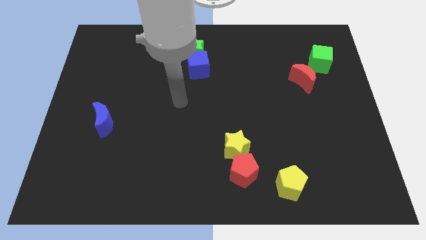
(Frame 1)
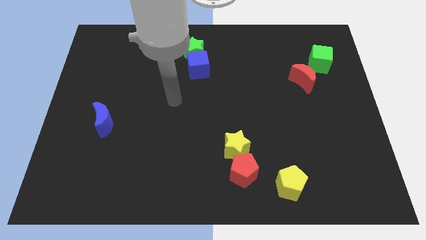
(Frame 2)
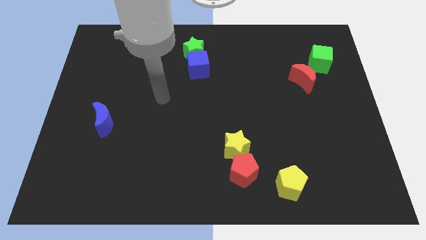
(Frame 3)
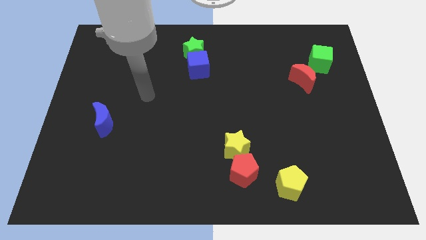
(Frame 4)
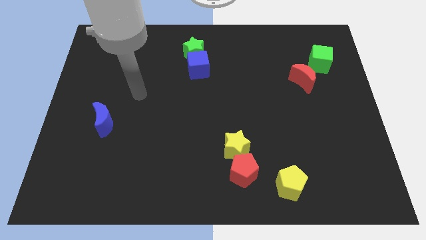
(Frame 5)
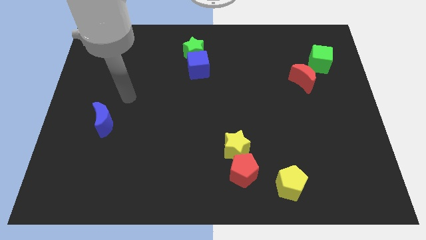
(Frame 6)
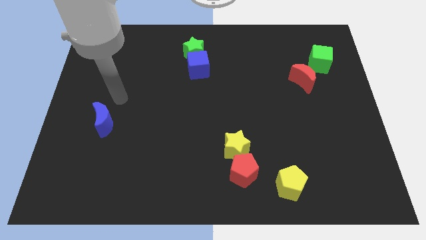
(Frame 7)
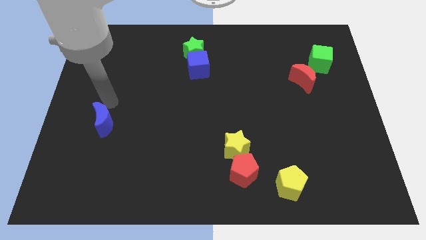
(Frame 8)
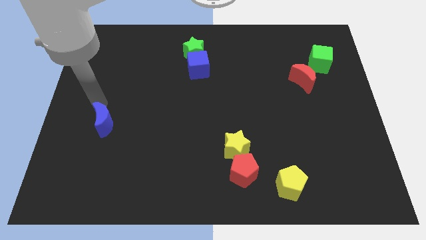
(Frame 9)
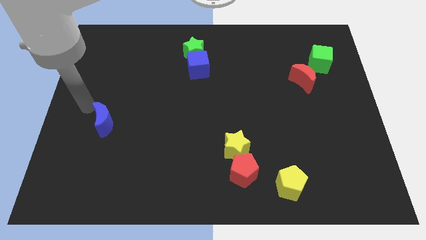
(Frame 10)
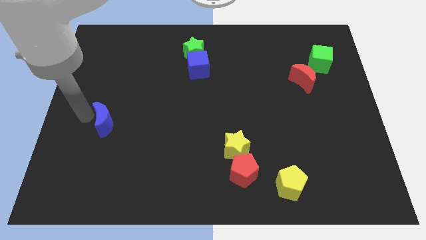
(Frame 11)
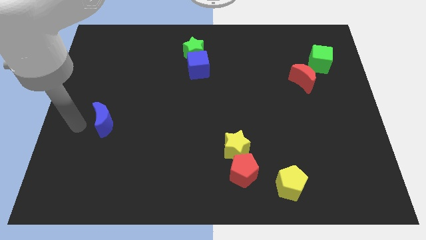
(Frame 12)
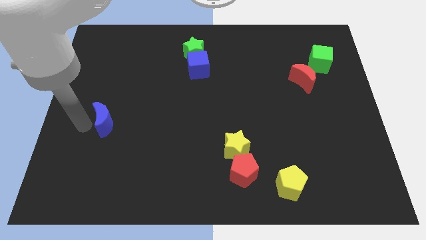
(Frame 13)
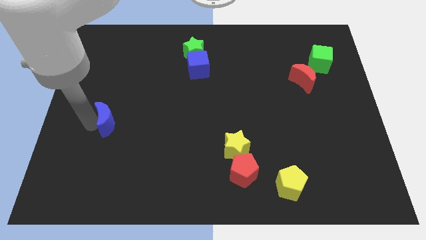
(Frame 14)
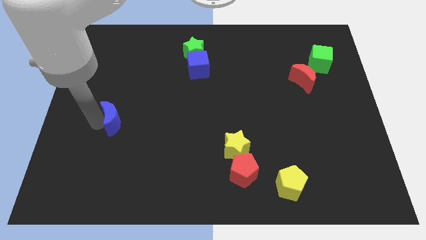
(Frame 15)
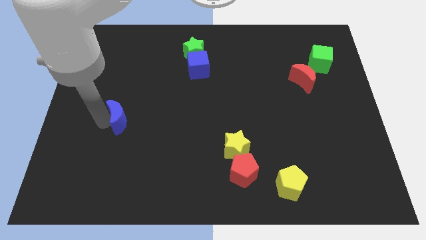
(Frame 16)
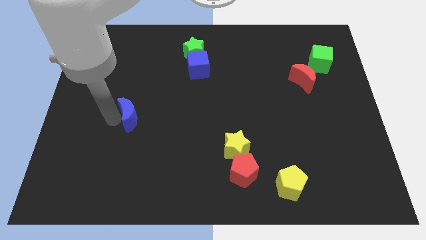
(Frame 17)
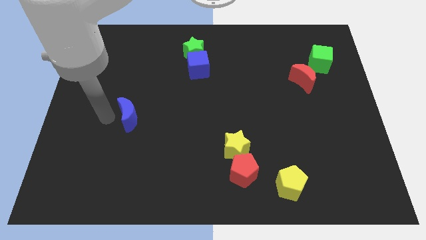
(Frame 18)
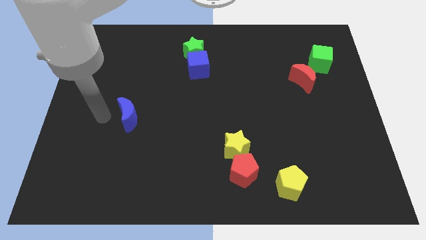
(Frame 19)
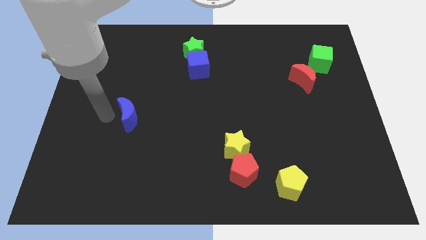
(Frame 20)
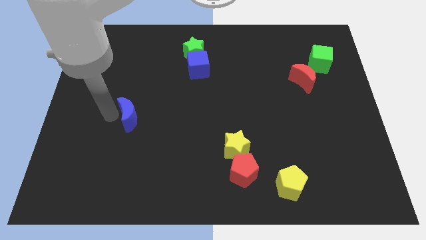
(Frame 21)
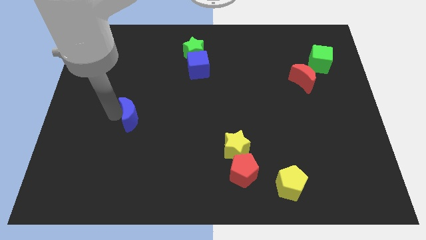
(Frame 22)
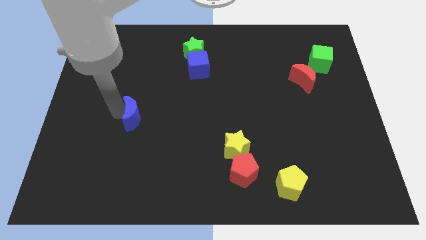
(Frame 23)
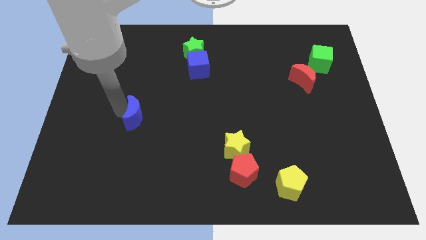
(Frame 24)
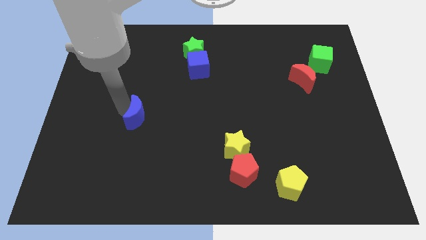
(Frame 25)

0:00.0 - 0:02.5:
slide the blue moon a bit right

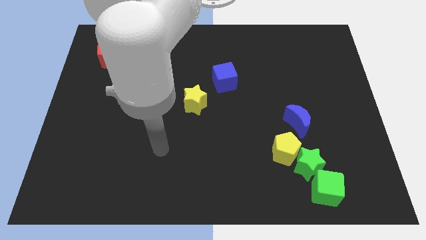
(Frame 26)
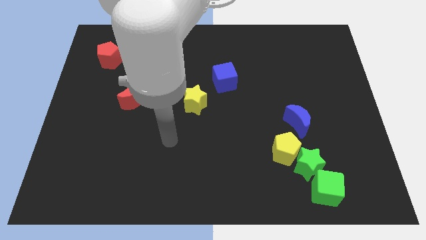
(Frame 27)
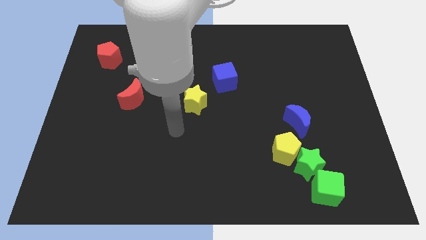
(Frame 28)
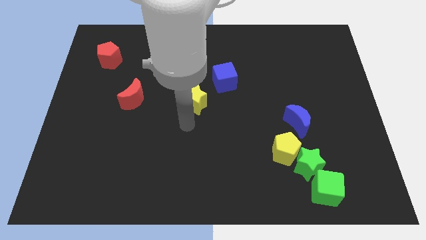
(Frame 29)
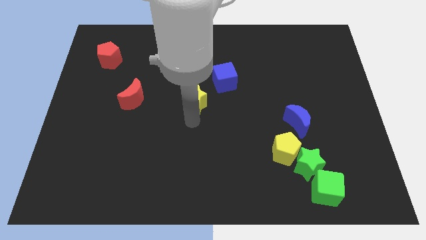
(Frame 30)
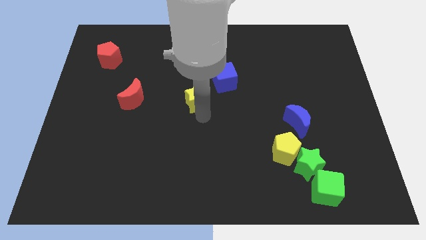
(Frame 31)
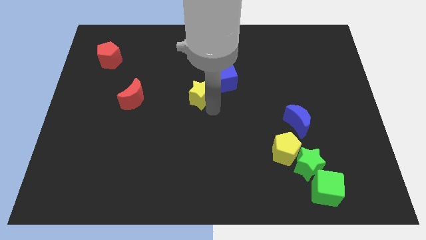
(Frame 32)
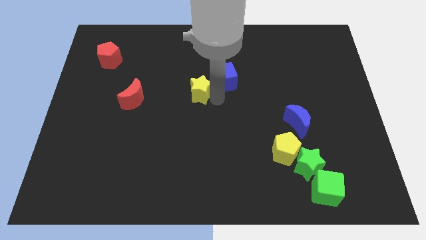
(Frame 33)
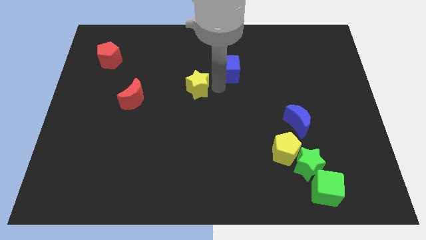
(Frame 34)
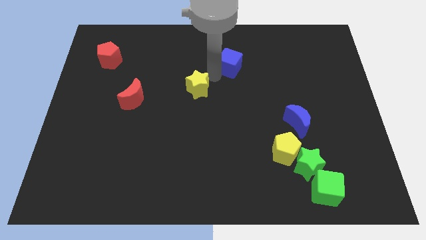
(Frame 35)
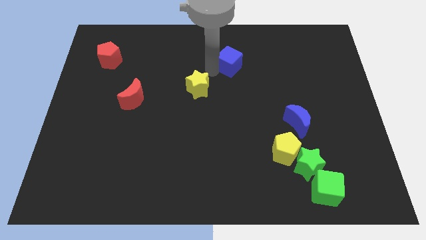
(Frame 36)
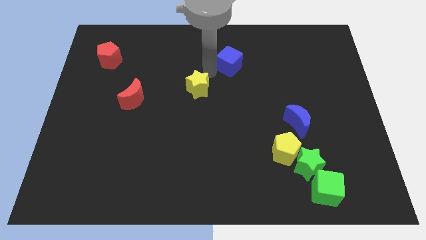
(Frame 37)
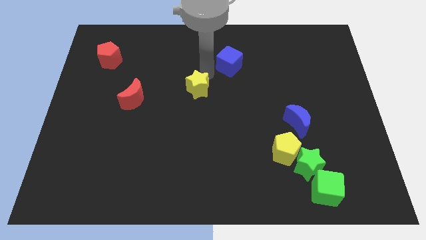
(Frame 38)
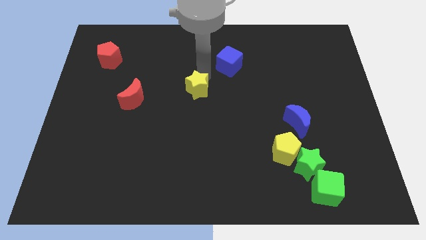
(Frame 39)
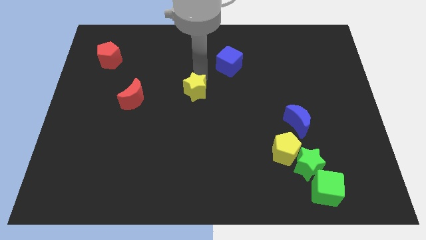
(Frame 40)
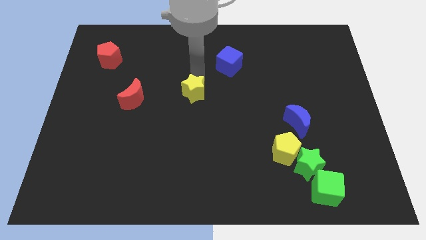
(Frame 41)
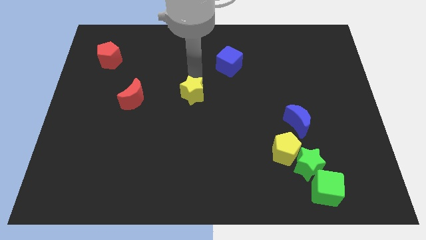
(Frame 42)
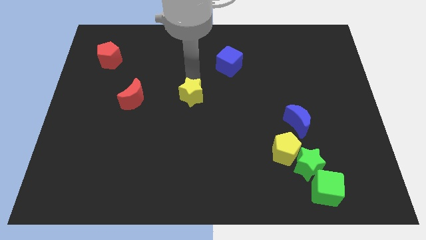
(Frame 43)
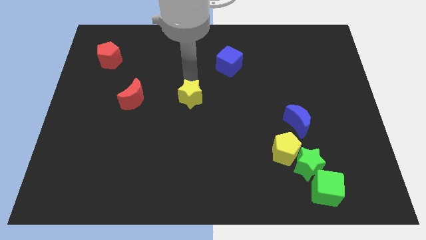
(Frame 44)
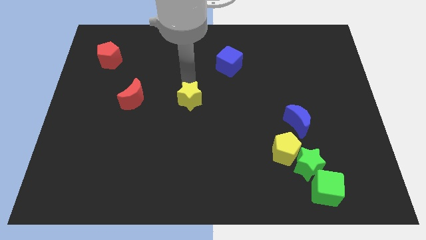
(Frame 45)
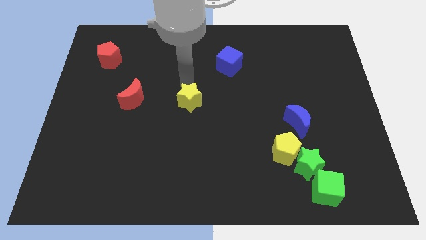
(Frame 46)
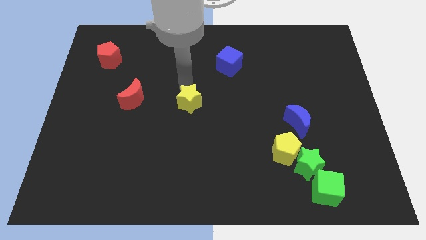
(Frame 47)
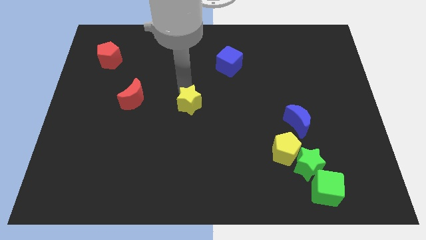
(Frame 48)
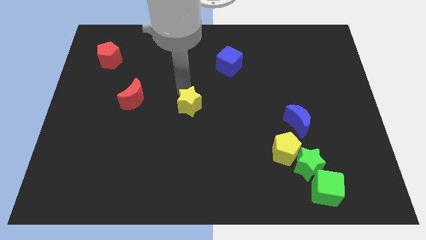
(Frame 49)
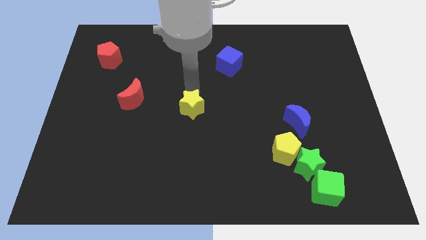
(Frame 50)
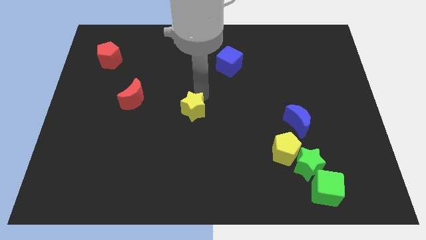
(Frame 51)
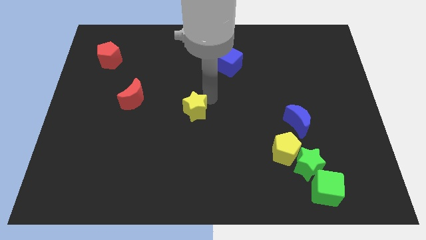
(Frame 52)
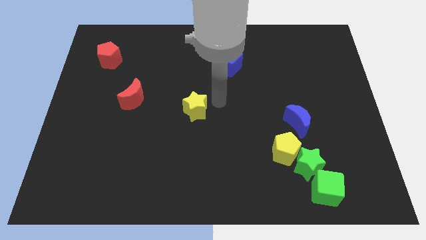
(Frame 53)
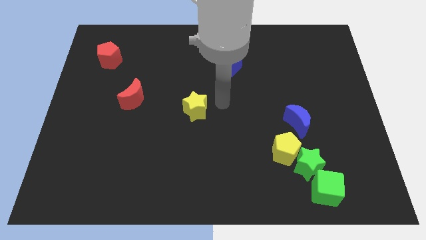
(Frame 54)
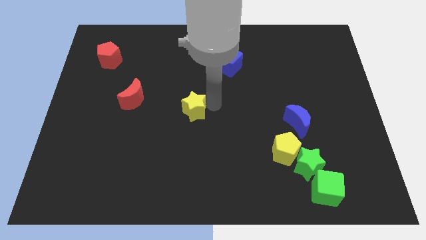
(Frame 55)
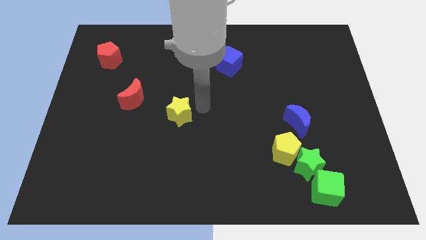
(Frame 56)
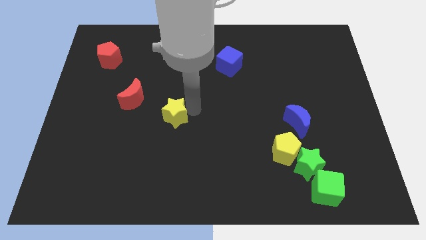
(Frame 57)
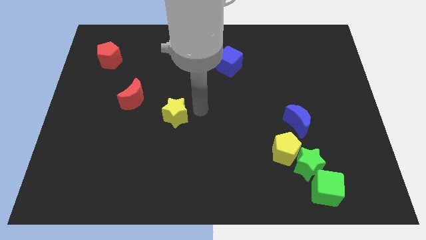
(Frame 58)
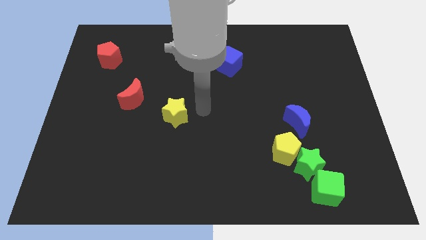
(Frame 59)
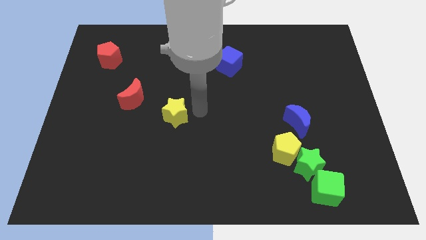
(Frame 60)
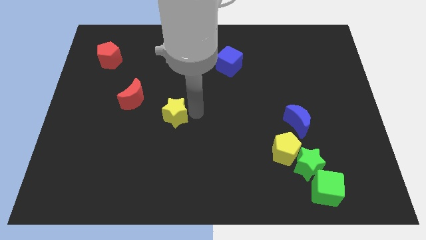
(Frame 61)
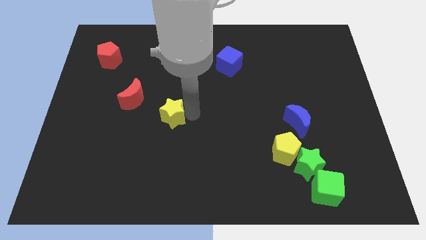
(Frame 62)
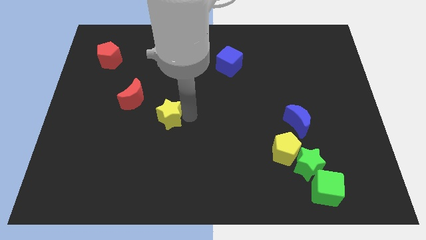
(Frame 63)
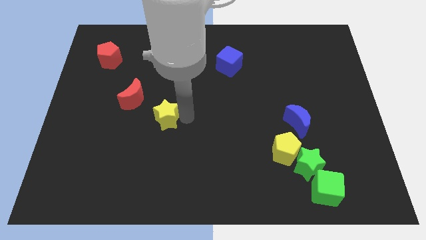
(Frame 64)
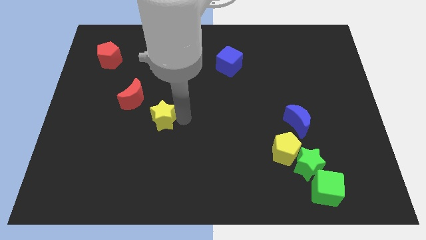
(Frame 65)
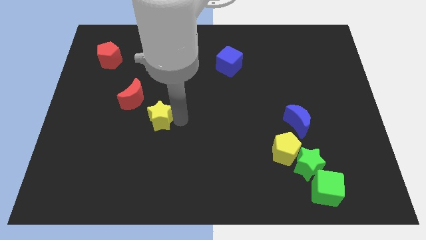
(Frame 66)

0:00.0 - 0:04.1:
slide the yellow star left a bit

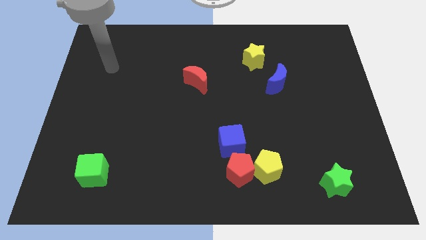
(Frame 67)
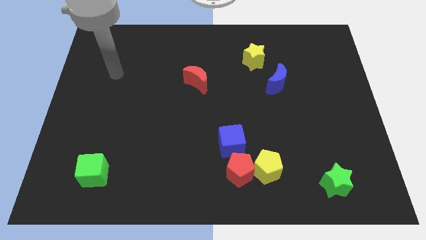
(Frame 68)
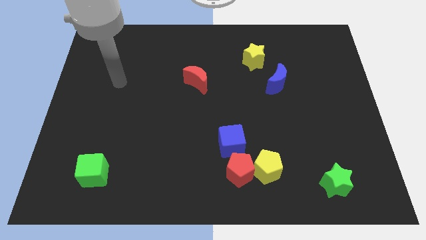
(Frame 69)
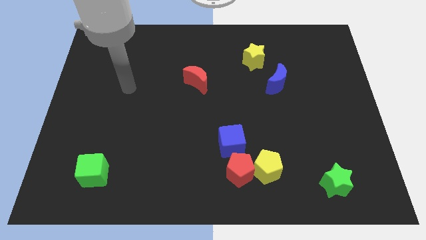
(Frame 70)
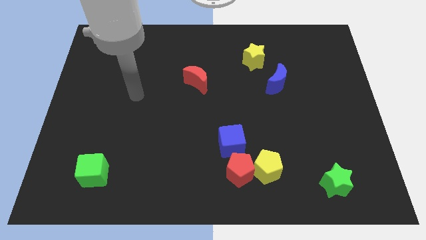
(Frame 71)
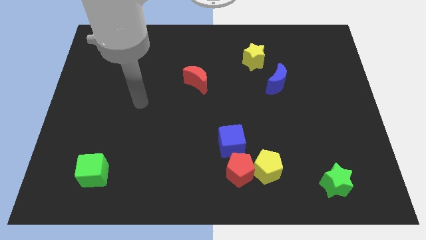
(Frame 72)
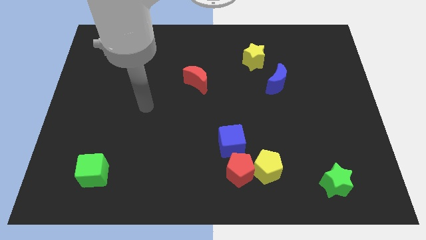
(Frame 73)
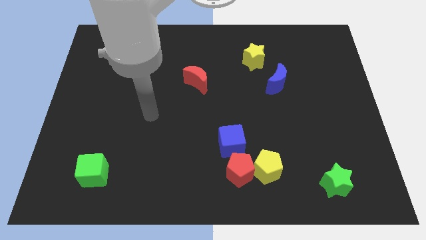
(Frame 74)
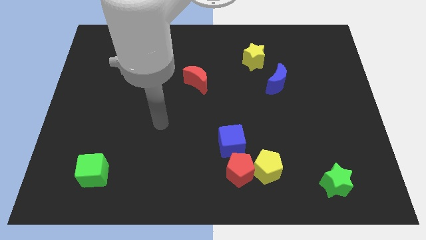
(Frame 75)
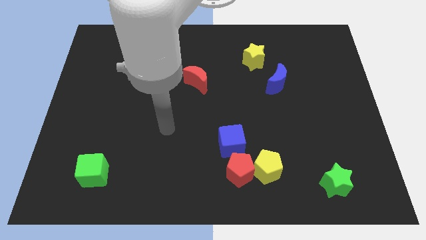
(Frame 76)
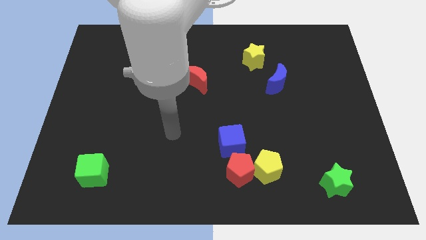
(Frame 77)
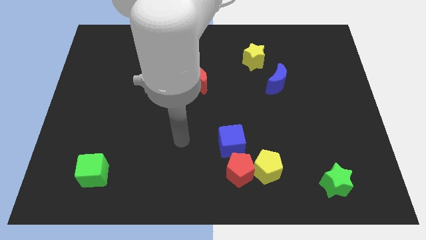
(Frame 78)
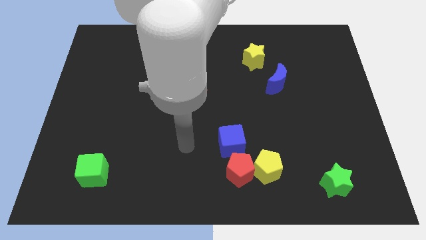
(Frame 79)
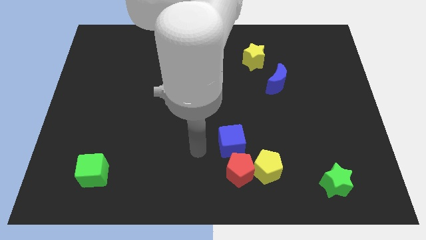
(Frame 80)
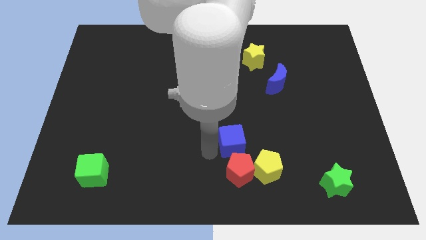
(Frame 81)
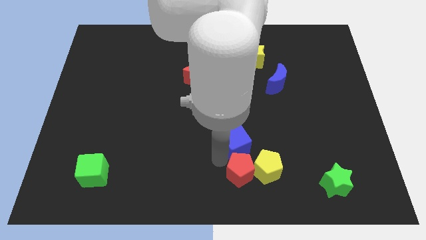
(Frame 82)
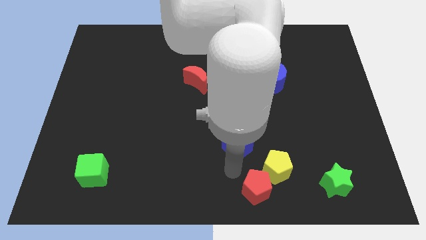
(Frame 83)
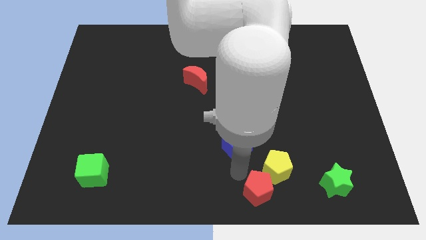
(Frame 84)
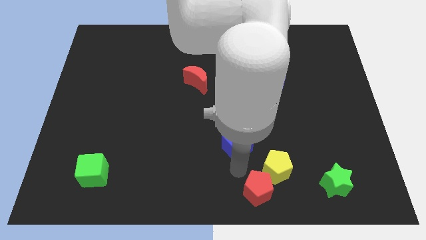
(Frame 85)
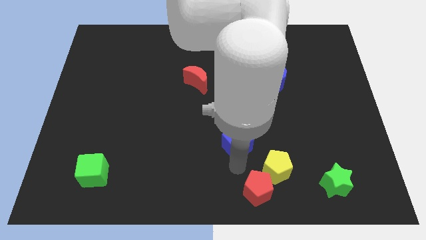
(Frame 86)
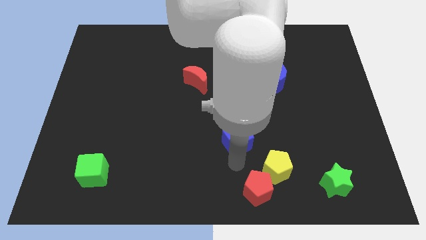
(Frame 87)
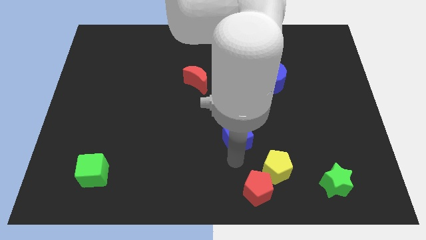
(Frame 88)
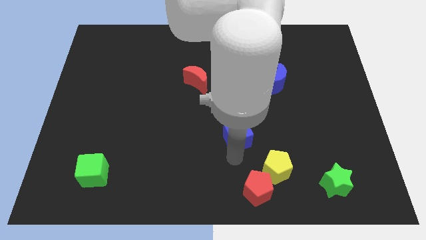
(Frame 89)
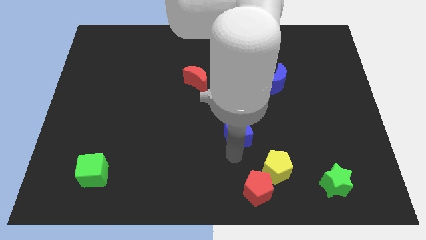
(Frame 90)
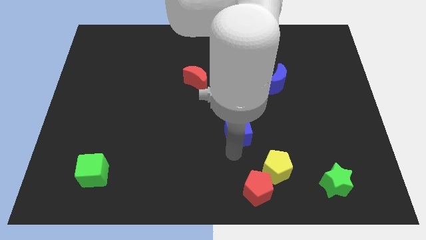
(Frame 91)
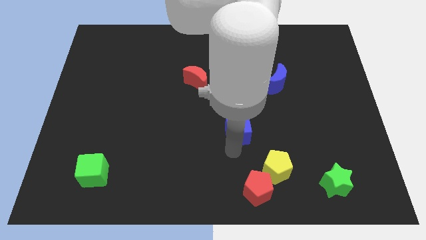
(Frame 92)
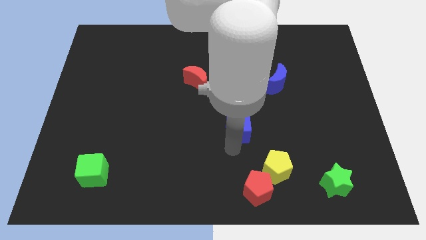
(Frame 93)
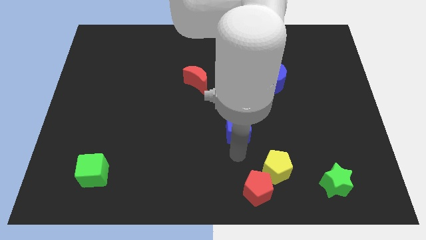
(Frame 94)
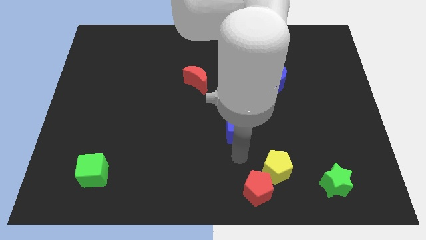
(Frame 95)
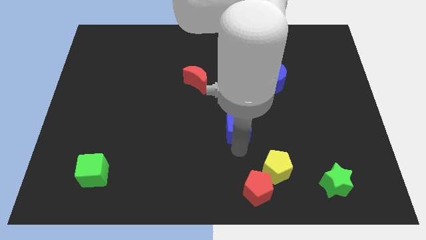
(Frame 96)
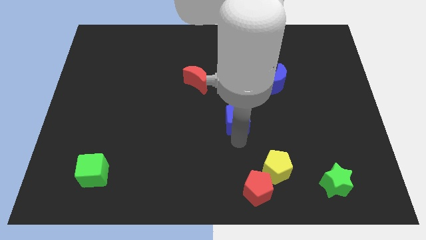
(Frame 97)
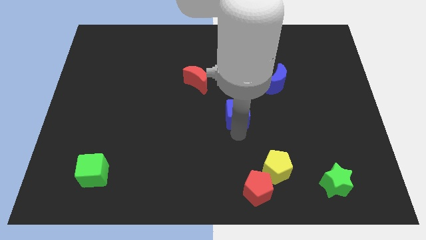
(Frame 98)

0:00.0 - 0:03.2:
slightly move the blue cube upwards
